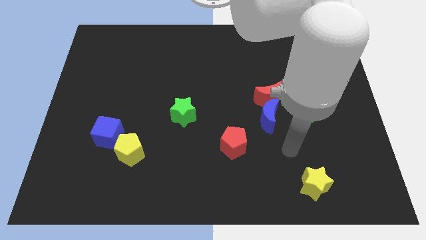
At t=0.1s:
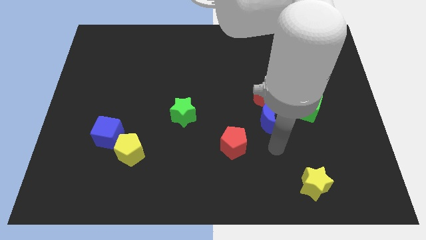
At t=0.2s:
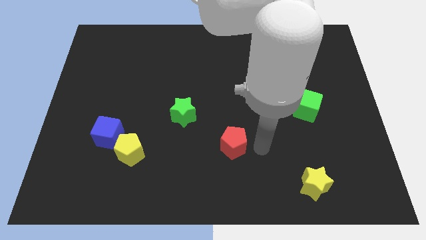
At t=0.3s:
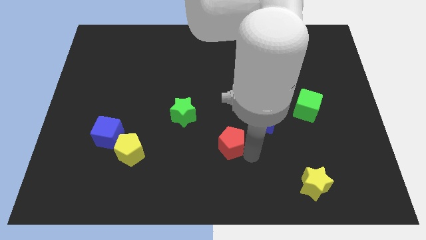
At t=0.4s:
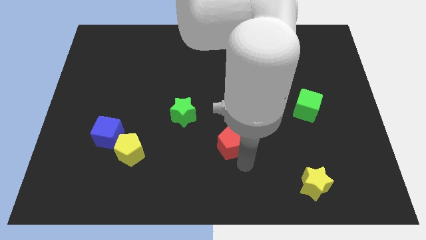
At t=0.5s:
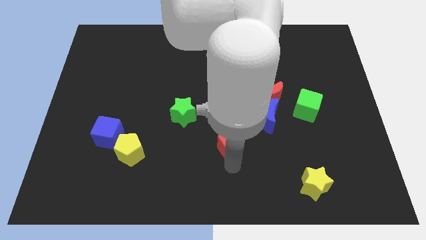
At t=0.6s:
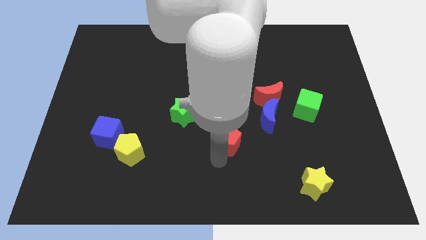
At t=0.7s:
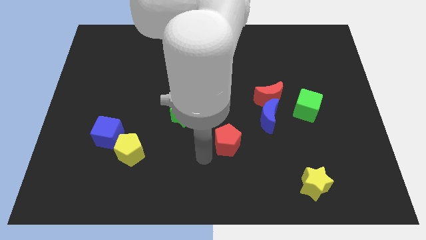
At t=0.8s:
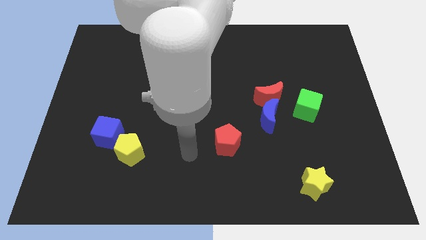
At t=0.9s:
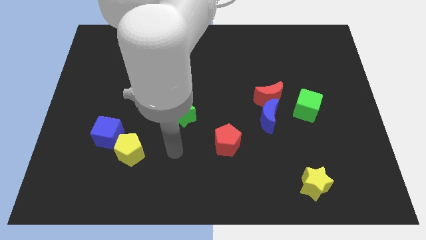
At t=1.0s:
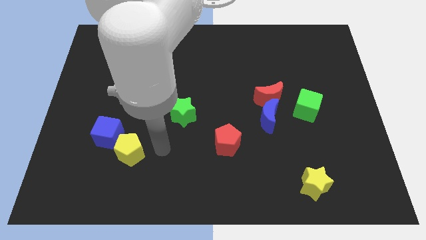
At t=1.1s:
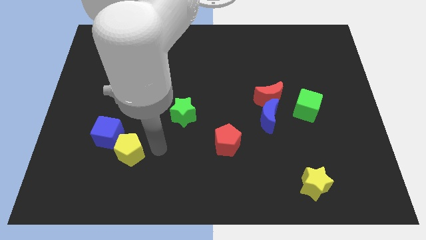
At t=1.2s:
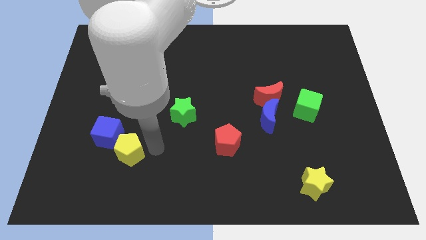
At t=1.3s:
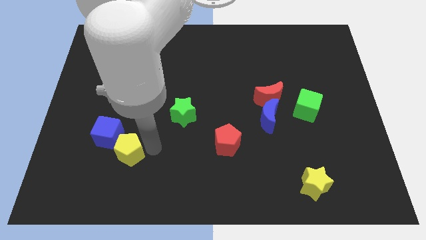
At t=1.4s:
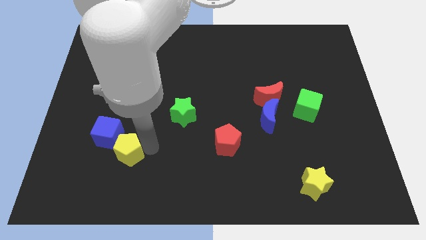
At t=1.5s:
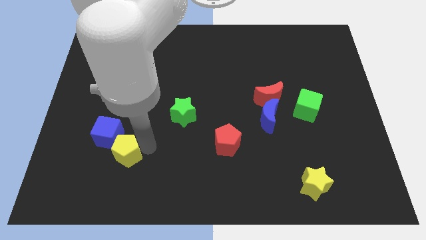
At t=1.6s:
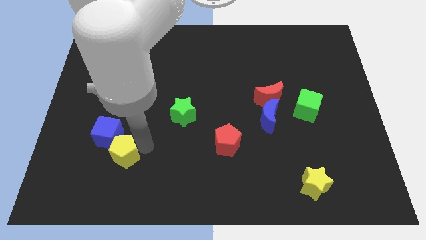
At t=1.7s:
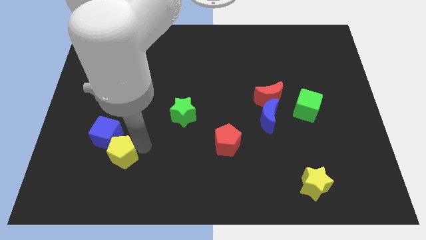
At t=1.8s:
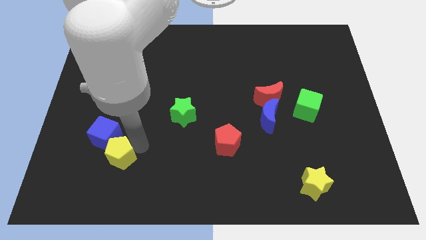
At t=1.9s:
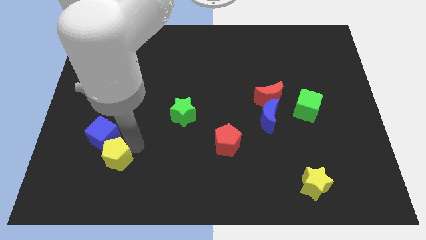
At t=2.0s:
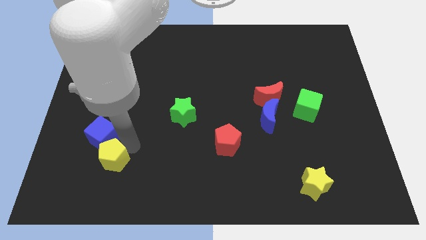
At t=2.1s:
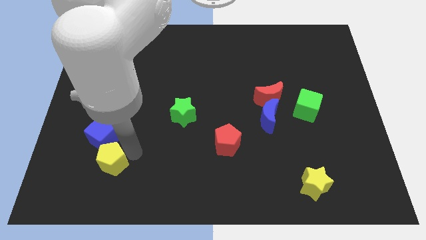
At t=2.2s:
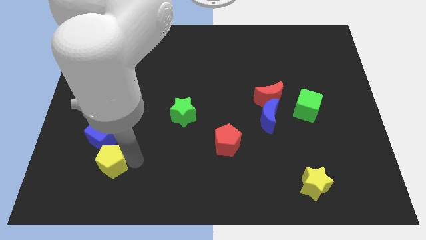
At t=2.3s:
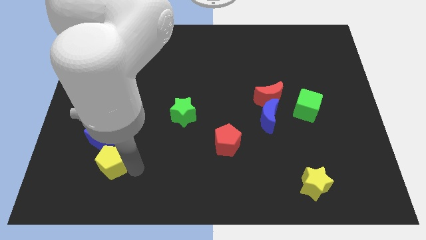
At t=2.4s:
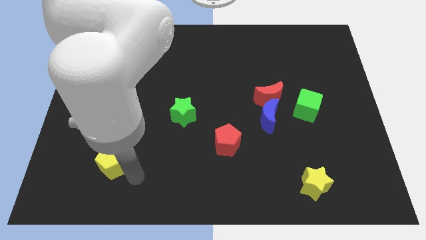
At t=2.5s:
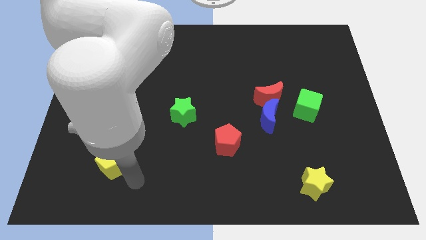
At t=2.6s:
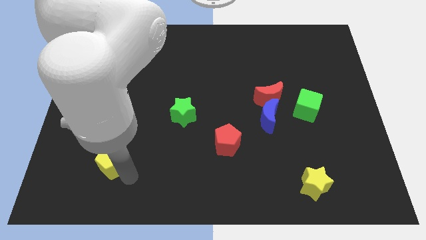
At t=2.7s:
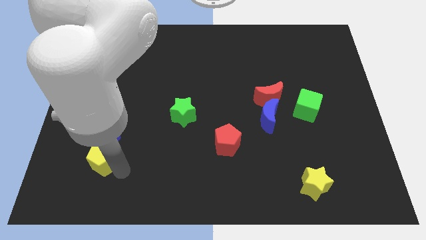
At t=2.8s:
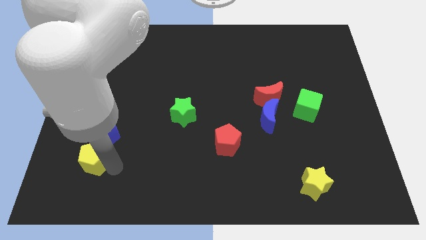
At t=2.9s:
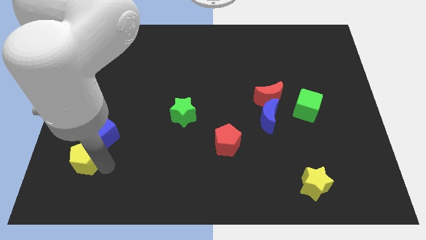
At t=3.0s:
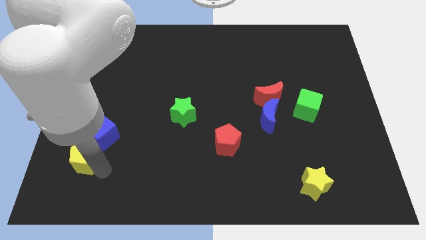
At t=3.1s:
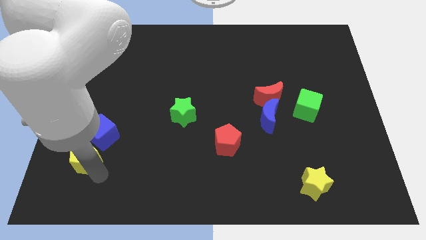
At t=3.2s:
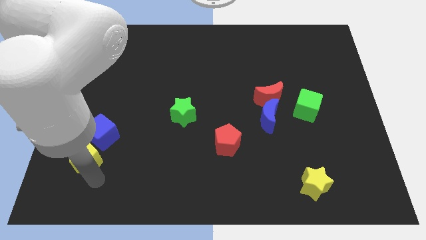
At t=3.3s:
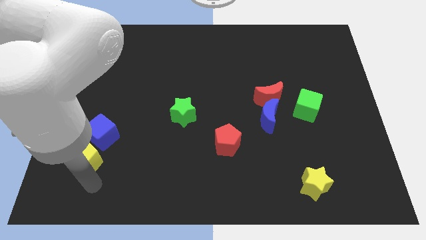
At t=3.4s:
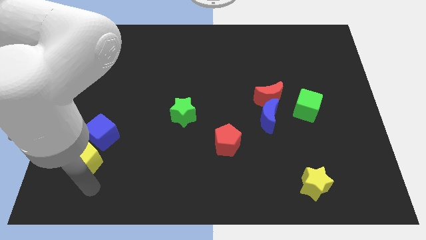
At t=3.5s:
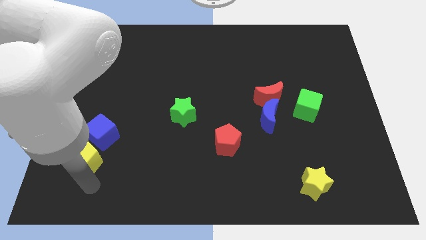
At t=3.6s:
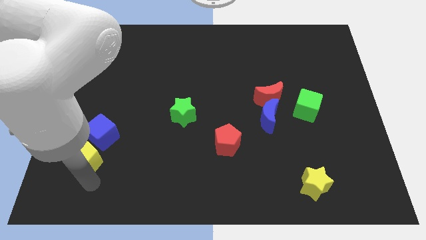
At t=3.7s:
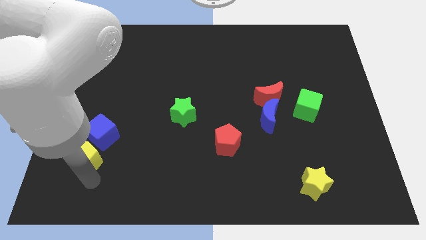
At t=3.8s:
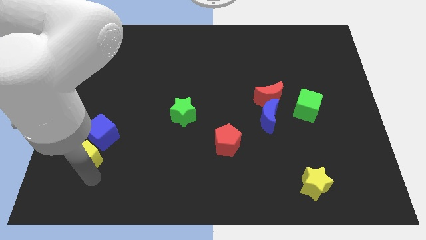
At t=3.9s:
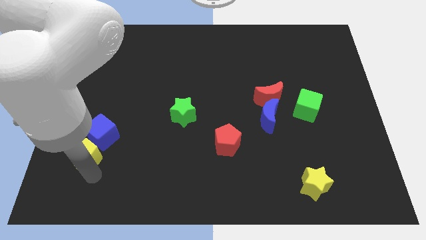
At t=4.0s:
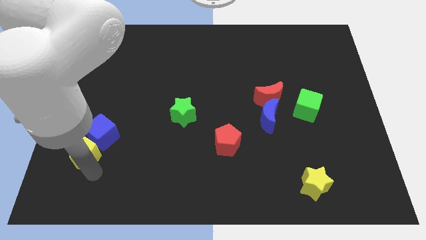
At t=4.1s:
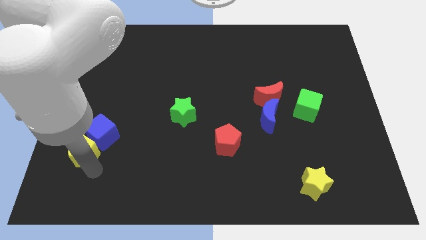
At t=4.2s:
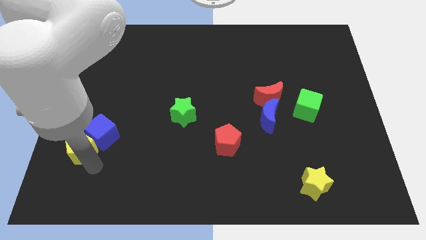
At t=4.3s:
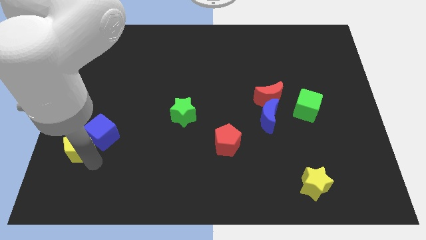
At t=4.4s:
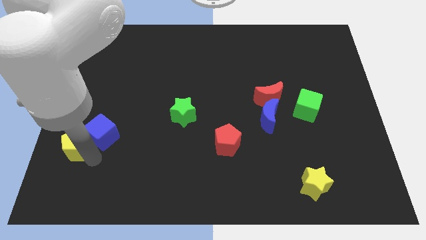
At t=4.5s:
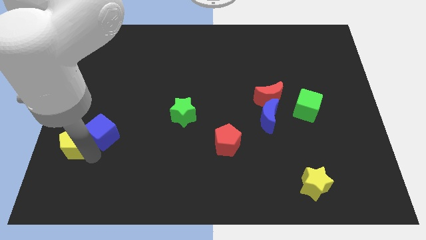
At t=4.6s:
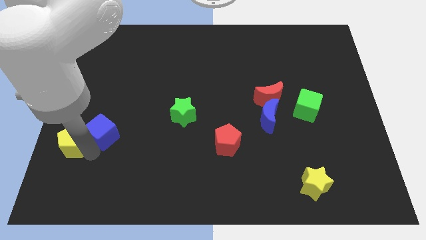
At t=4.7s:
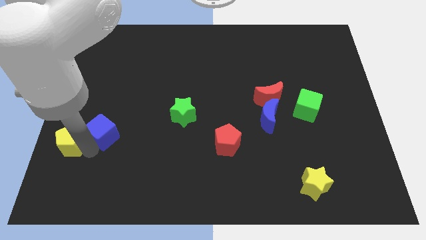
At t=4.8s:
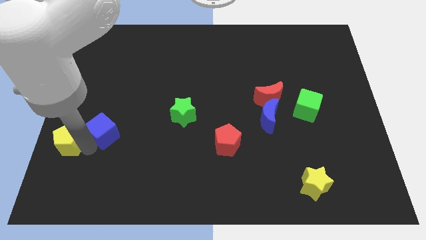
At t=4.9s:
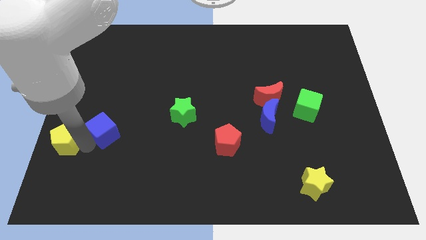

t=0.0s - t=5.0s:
move the yellow pentagon to the left side

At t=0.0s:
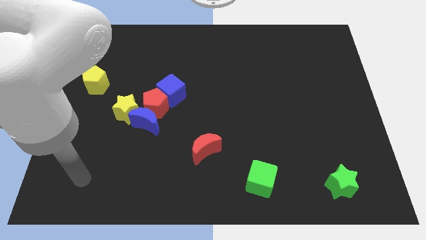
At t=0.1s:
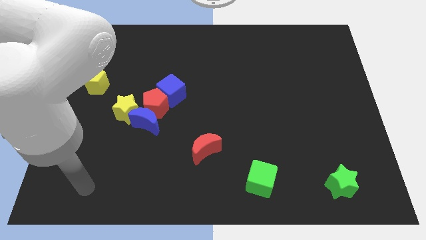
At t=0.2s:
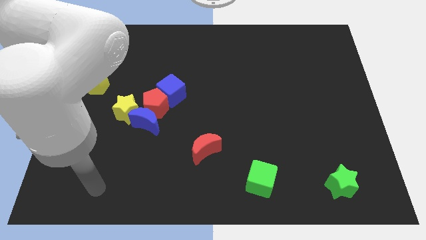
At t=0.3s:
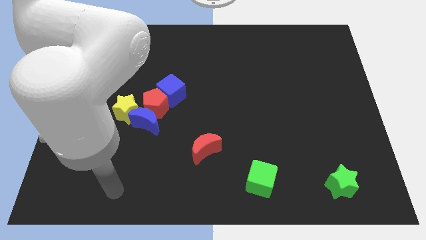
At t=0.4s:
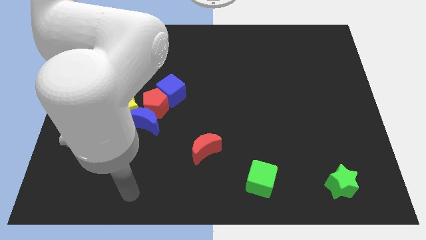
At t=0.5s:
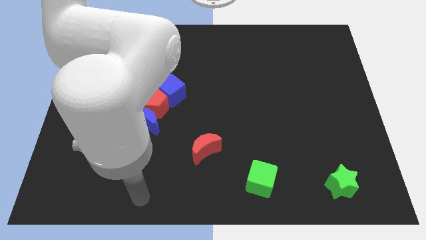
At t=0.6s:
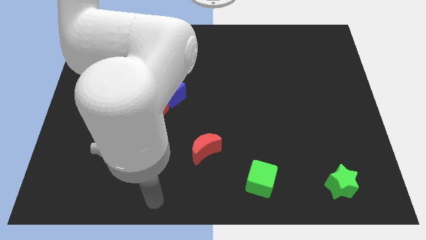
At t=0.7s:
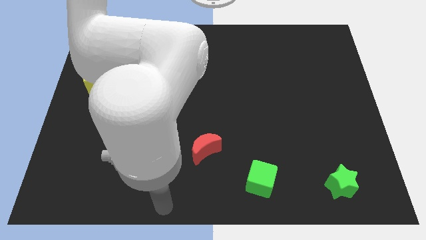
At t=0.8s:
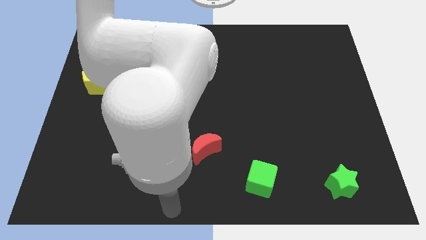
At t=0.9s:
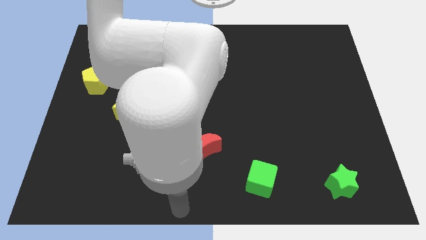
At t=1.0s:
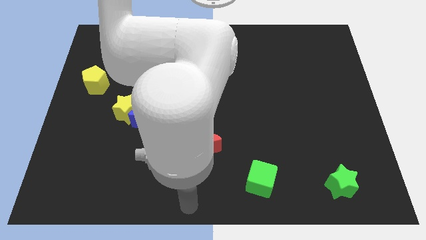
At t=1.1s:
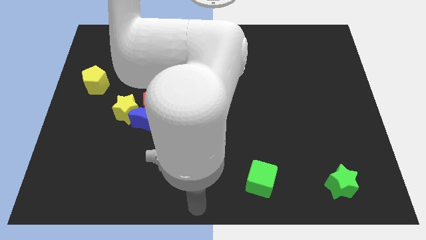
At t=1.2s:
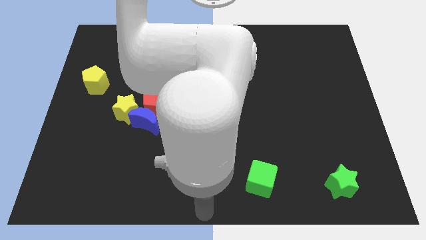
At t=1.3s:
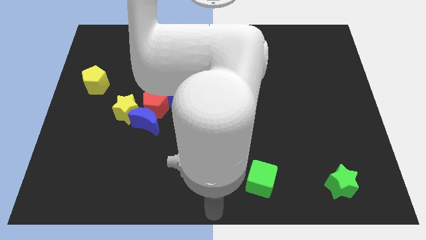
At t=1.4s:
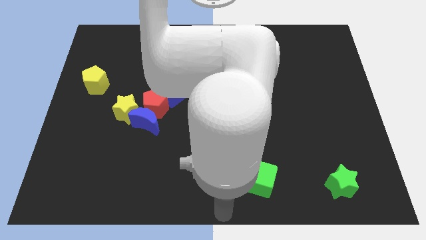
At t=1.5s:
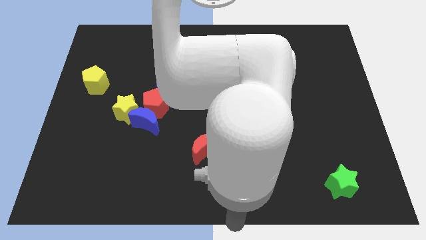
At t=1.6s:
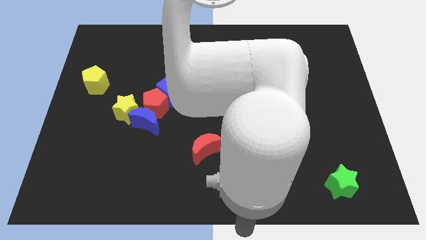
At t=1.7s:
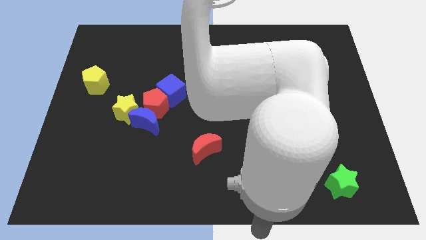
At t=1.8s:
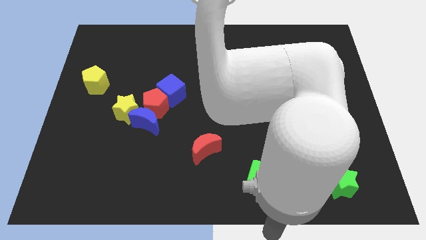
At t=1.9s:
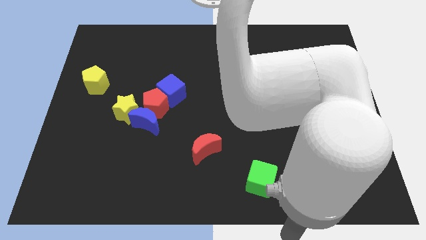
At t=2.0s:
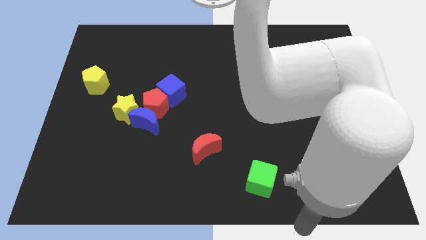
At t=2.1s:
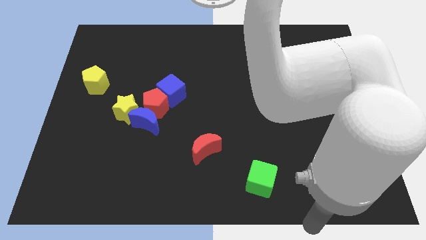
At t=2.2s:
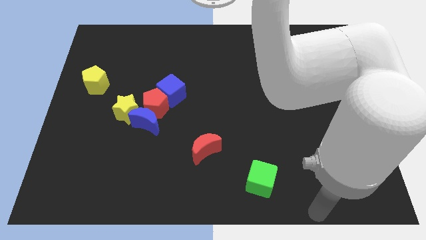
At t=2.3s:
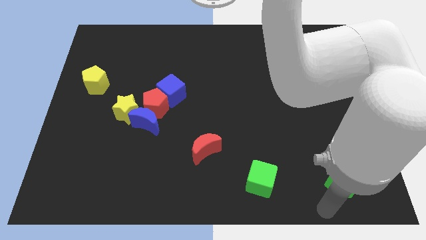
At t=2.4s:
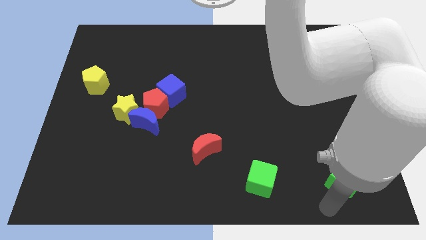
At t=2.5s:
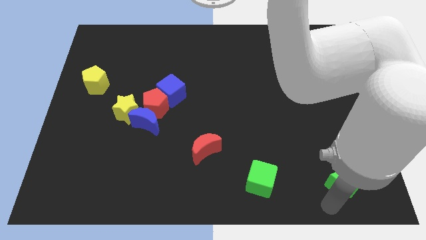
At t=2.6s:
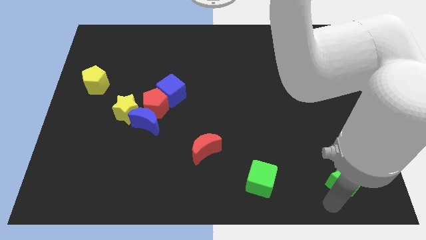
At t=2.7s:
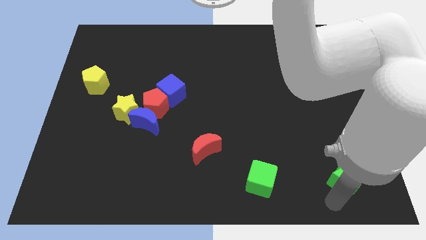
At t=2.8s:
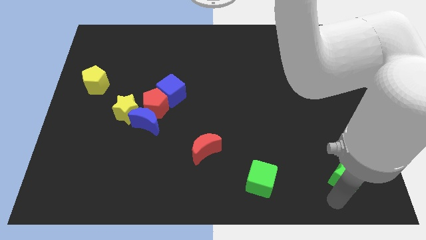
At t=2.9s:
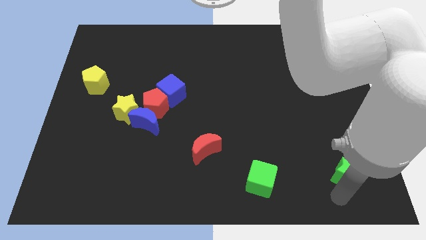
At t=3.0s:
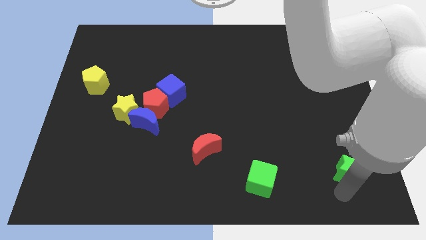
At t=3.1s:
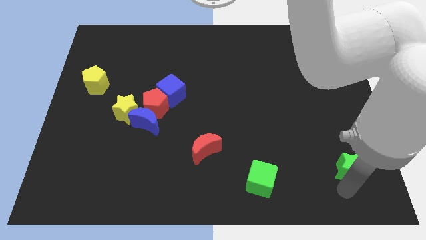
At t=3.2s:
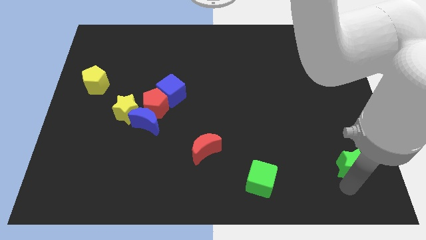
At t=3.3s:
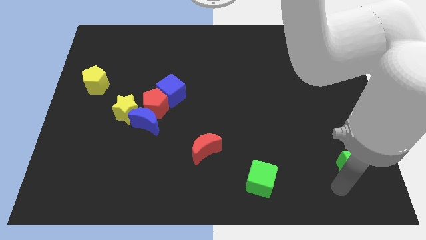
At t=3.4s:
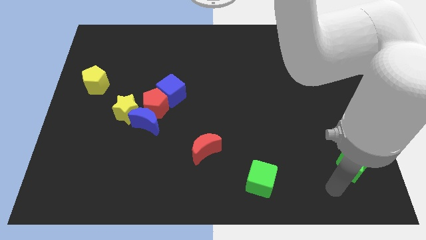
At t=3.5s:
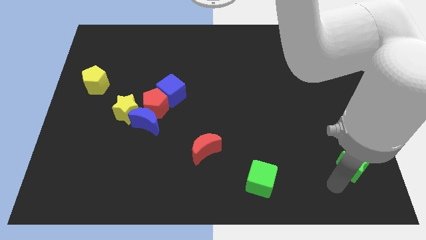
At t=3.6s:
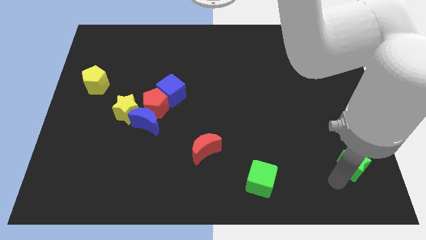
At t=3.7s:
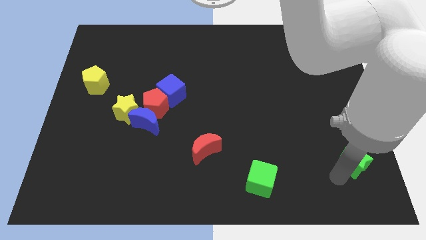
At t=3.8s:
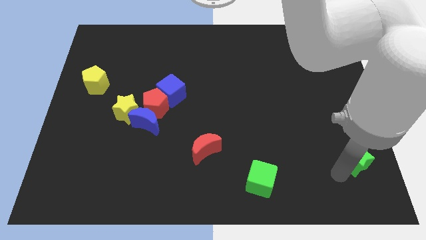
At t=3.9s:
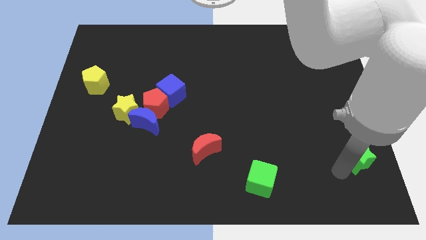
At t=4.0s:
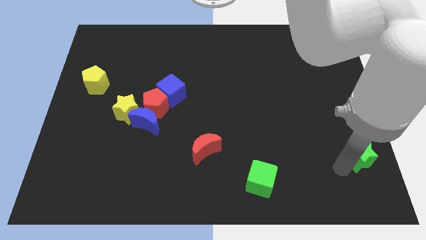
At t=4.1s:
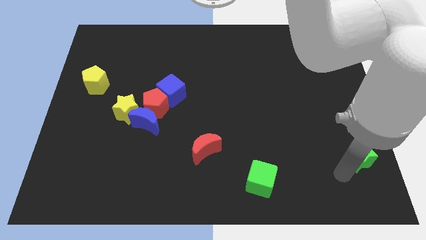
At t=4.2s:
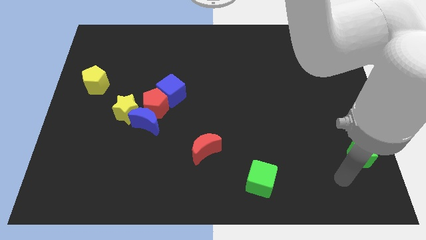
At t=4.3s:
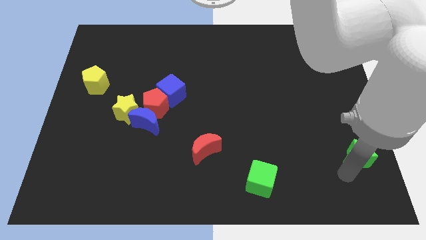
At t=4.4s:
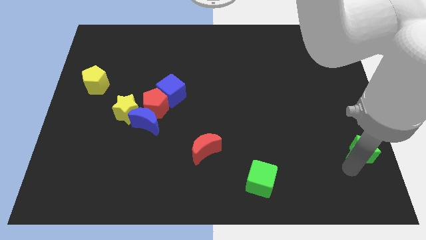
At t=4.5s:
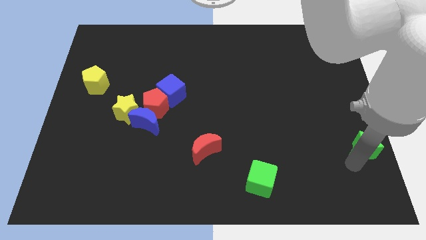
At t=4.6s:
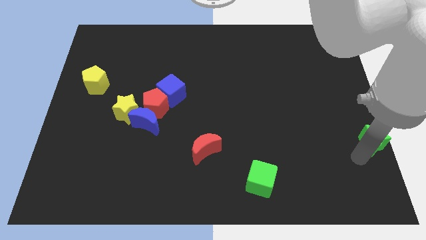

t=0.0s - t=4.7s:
slide the green star to the center right
